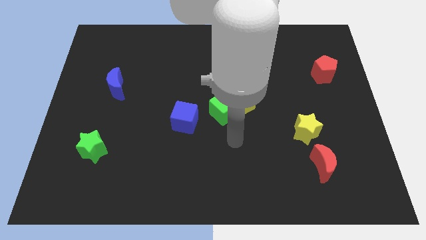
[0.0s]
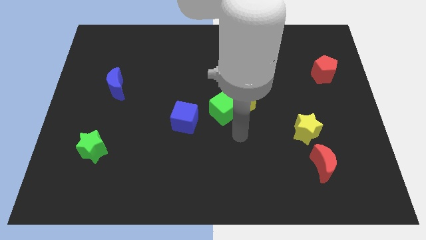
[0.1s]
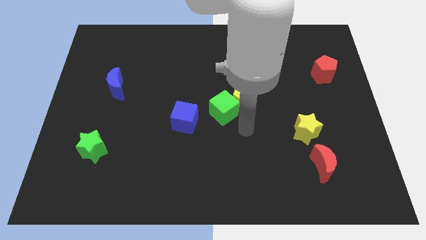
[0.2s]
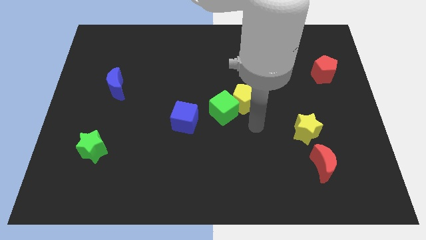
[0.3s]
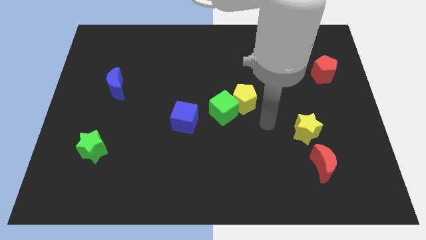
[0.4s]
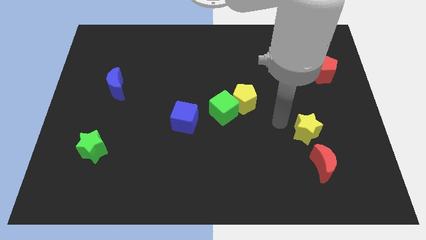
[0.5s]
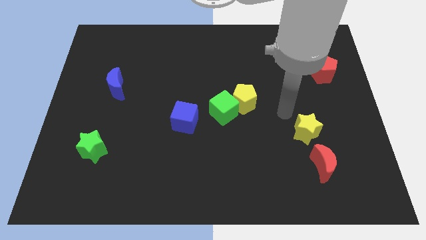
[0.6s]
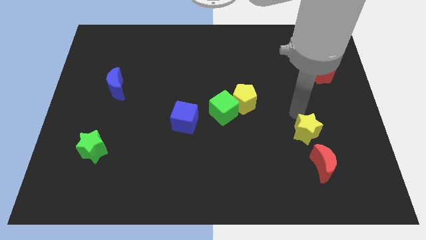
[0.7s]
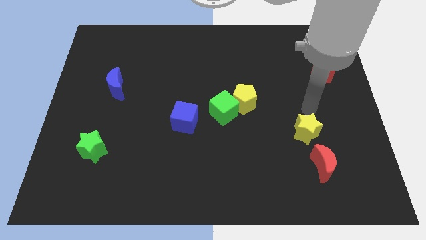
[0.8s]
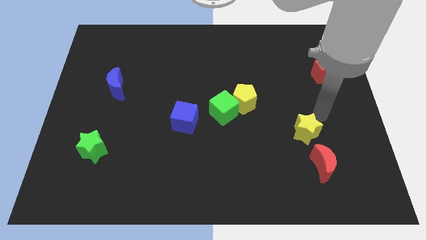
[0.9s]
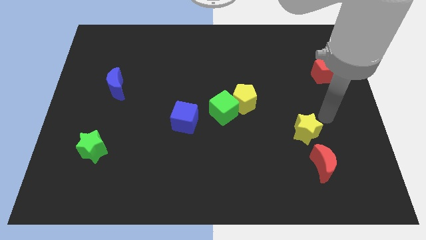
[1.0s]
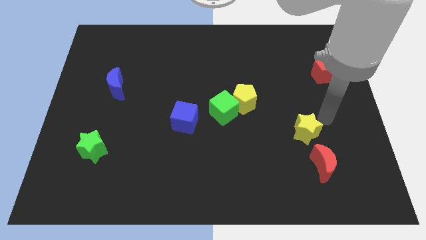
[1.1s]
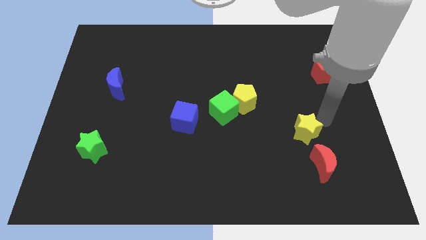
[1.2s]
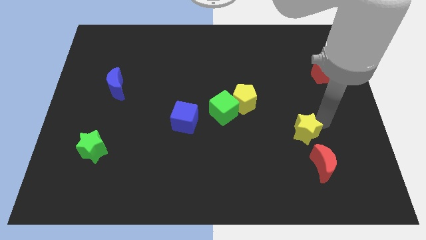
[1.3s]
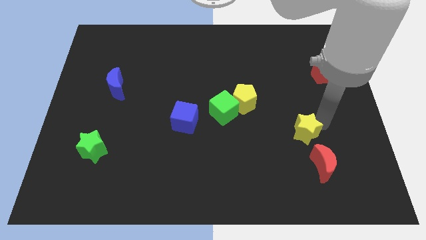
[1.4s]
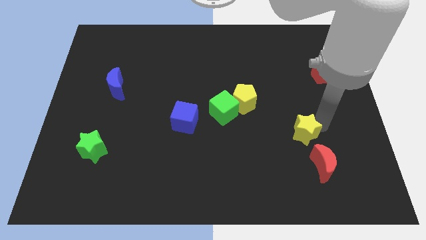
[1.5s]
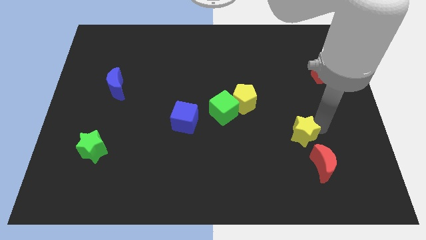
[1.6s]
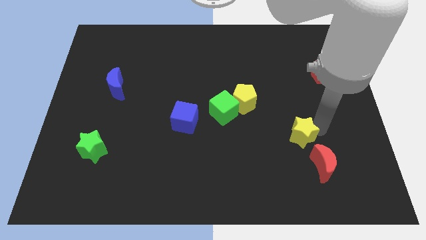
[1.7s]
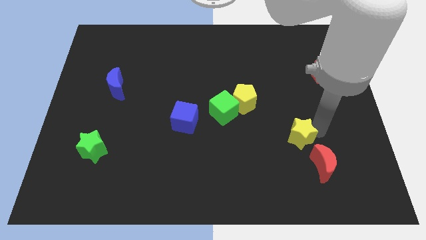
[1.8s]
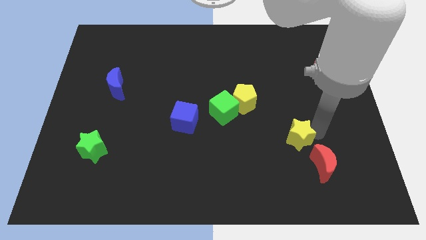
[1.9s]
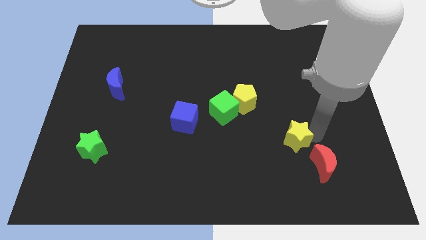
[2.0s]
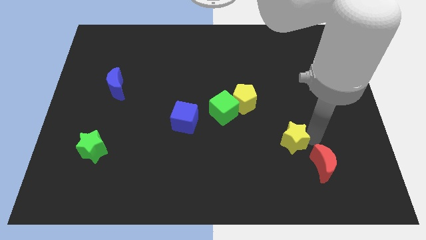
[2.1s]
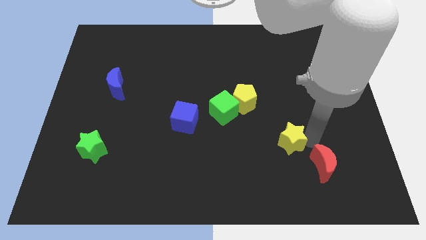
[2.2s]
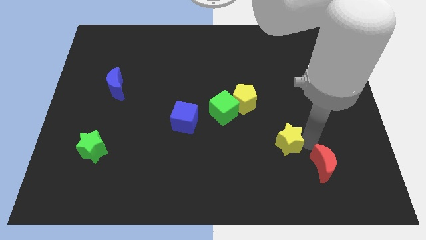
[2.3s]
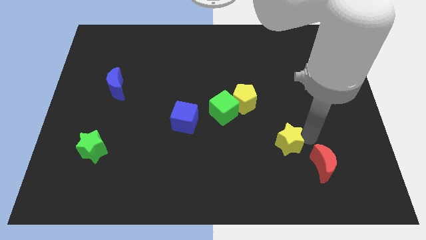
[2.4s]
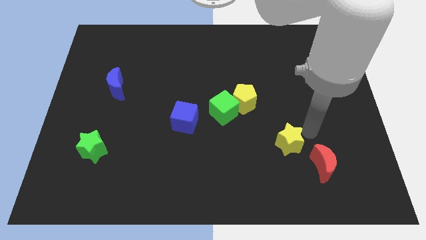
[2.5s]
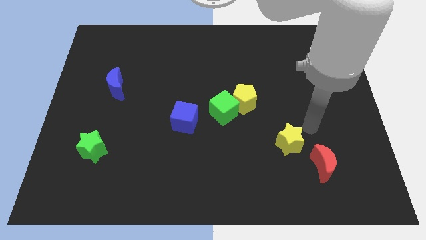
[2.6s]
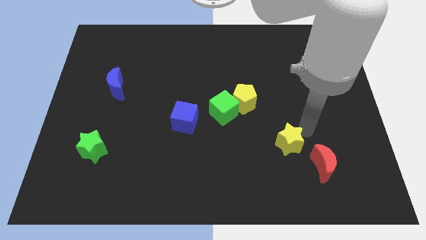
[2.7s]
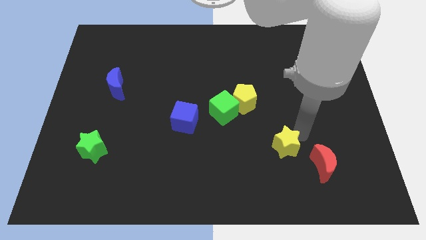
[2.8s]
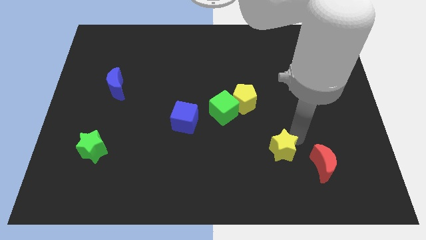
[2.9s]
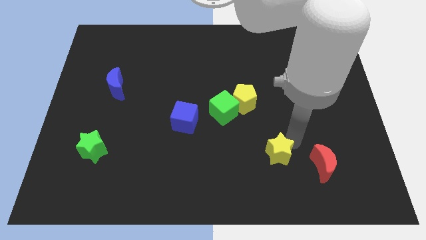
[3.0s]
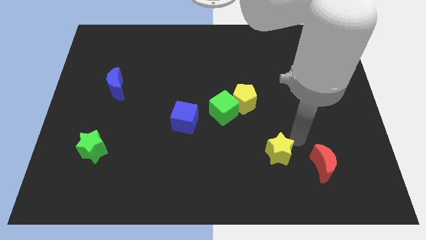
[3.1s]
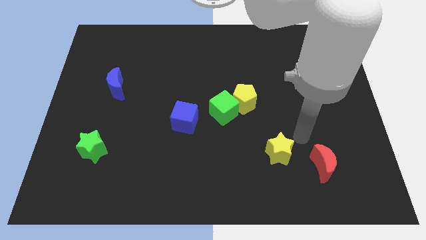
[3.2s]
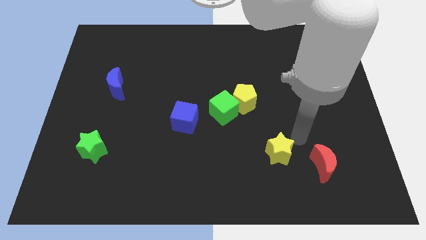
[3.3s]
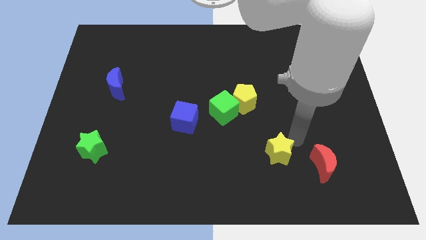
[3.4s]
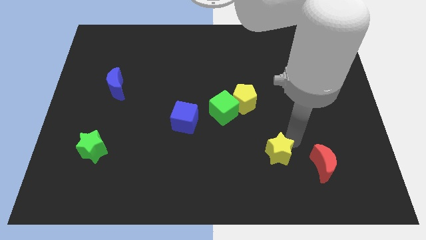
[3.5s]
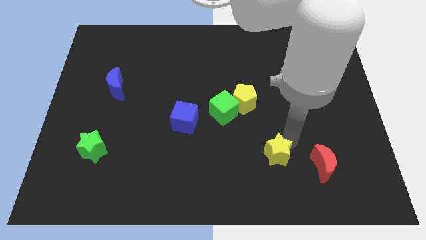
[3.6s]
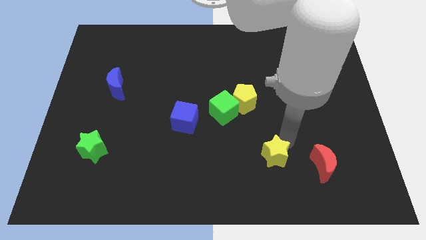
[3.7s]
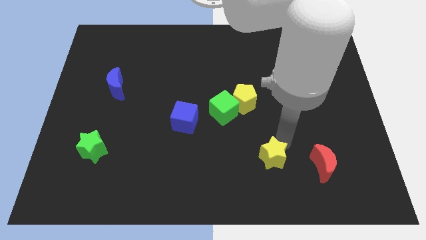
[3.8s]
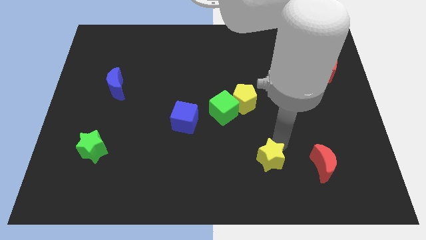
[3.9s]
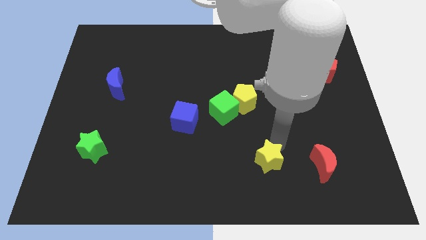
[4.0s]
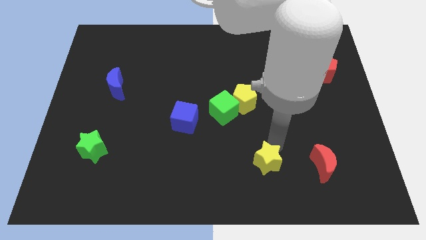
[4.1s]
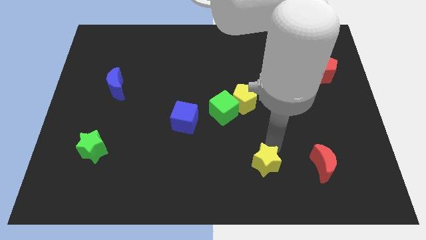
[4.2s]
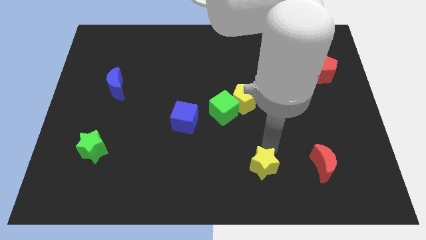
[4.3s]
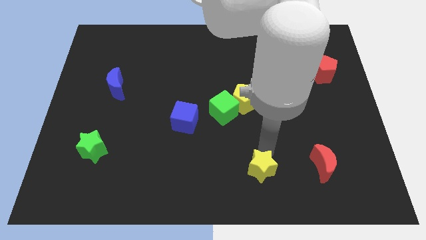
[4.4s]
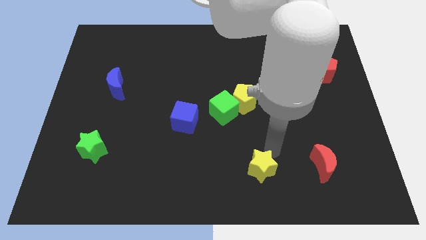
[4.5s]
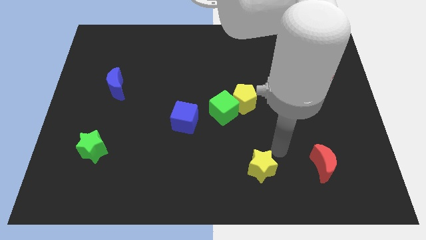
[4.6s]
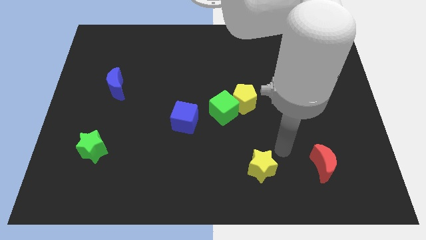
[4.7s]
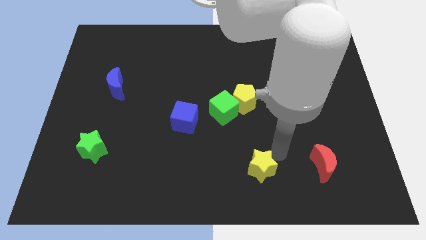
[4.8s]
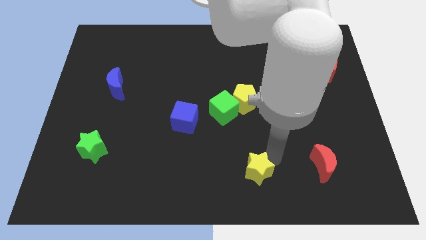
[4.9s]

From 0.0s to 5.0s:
put the yellow star to the bottom side

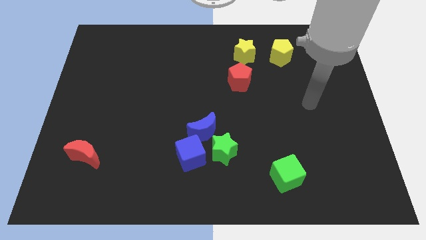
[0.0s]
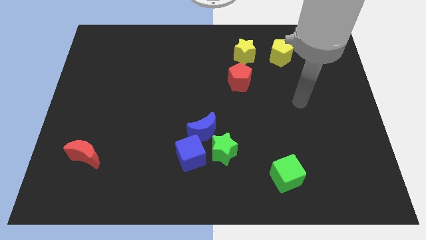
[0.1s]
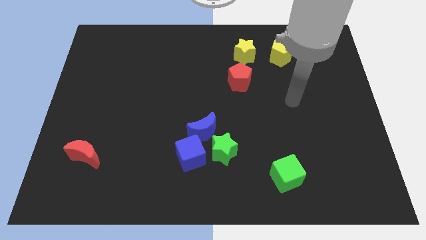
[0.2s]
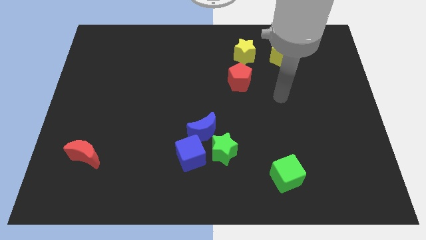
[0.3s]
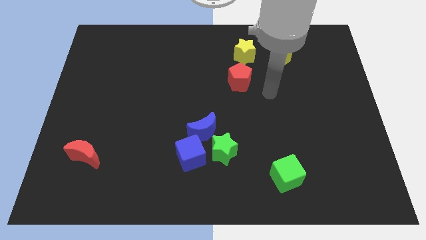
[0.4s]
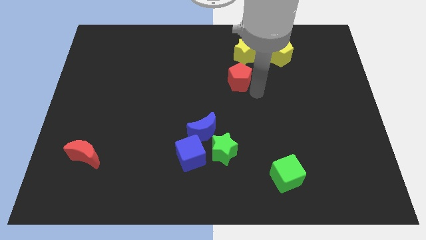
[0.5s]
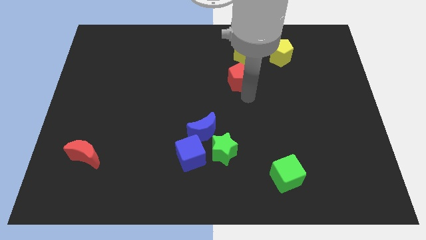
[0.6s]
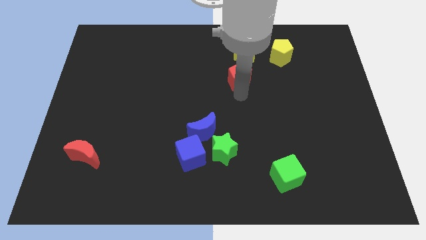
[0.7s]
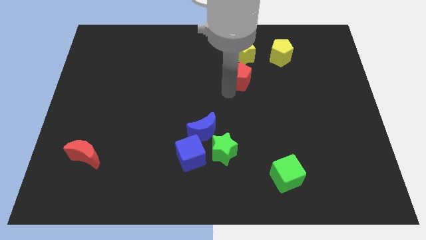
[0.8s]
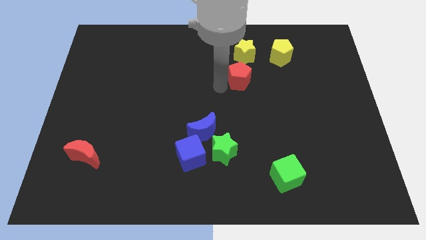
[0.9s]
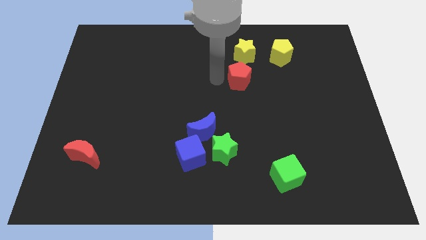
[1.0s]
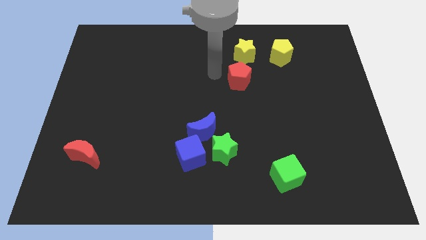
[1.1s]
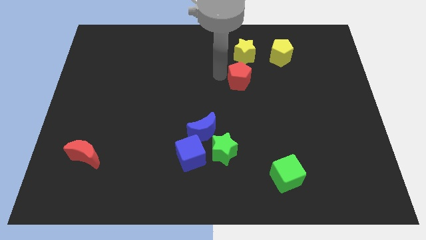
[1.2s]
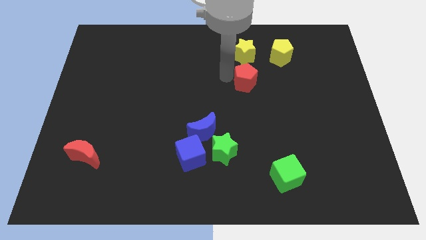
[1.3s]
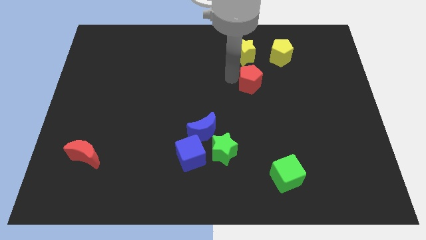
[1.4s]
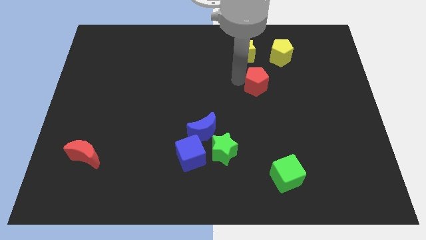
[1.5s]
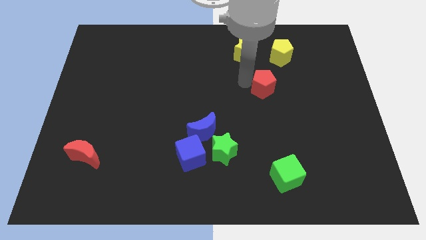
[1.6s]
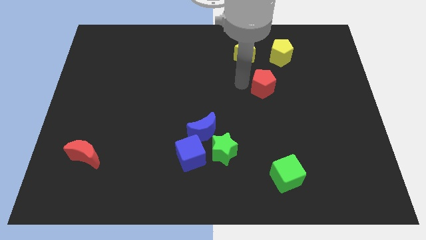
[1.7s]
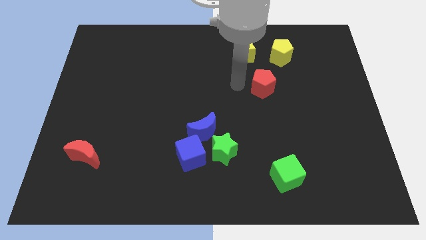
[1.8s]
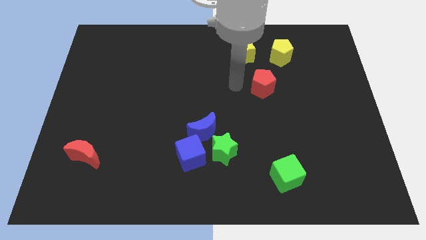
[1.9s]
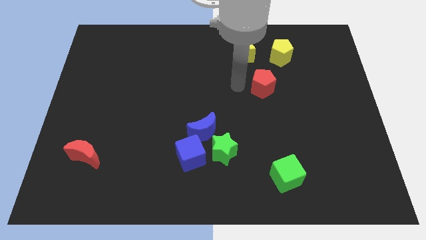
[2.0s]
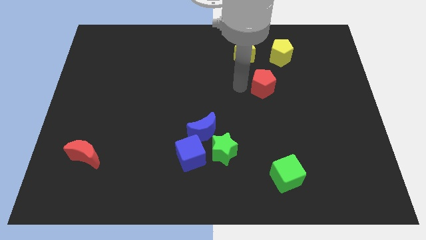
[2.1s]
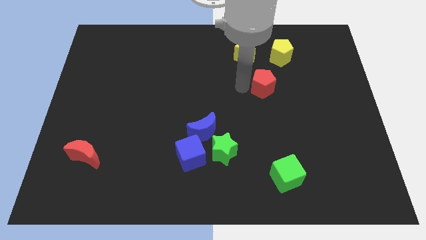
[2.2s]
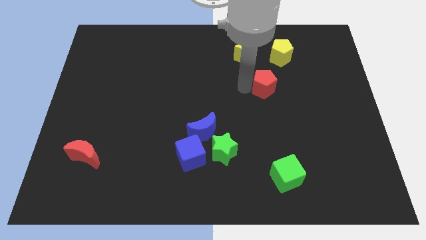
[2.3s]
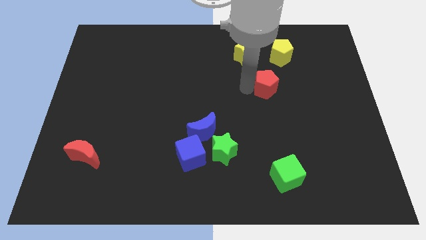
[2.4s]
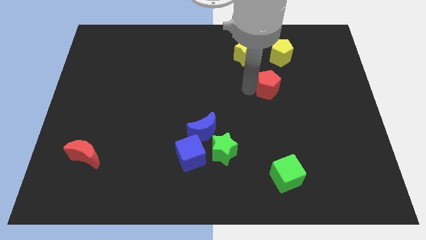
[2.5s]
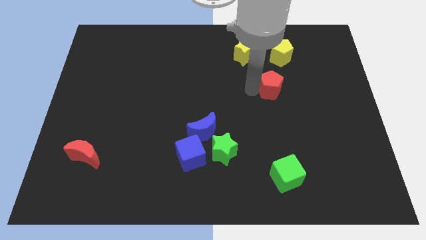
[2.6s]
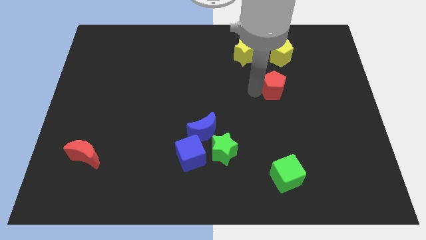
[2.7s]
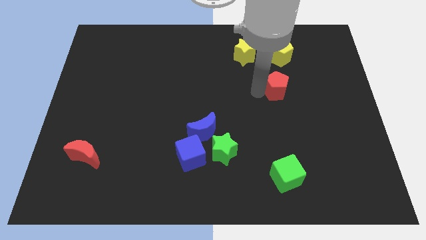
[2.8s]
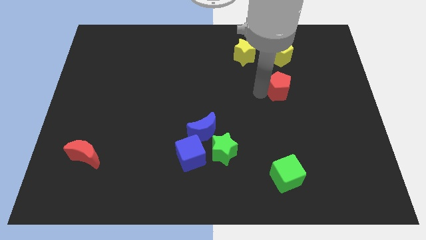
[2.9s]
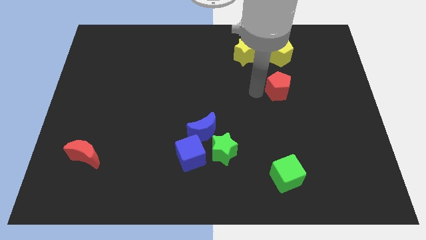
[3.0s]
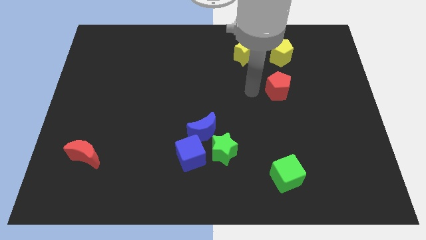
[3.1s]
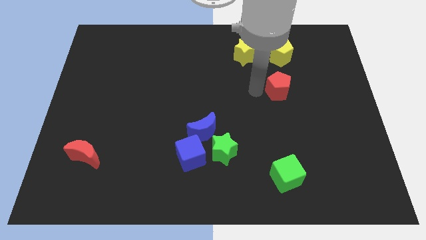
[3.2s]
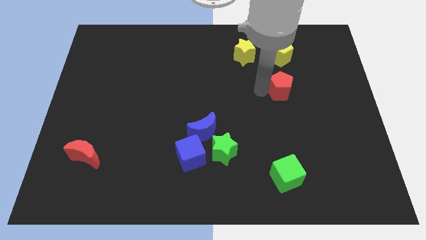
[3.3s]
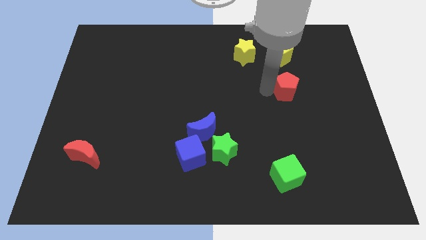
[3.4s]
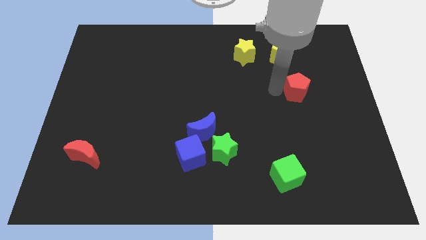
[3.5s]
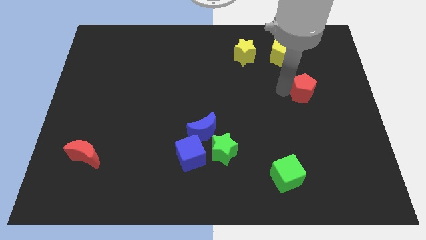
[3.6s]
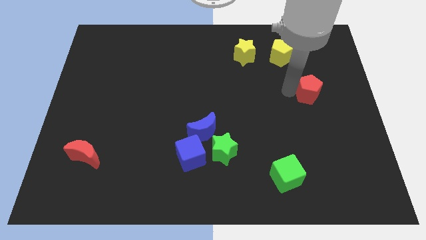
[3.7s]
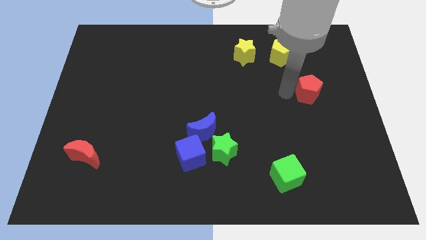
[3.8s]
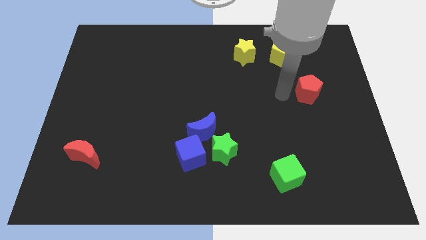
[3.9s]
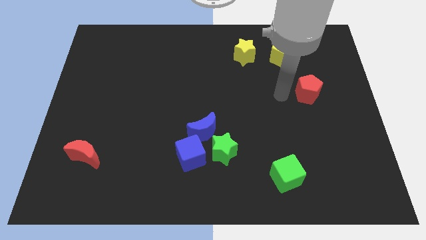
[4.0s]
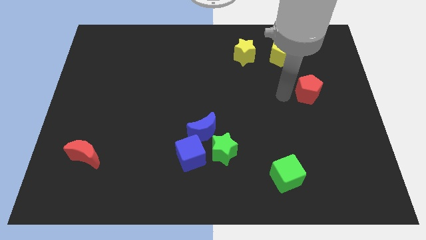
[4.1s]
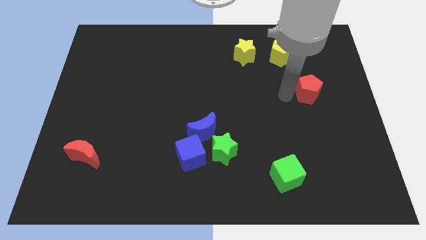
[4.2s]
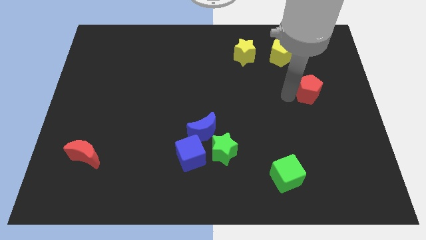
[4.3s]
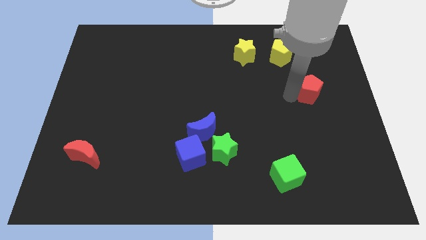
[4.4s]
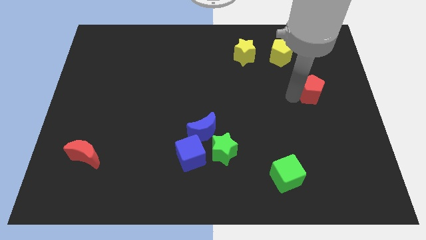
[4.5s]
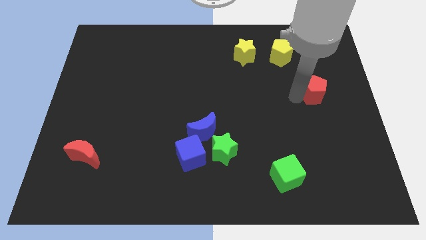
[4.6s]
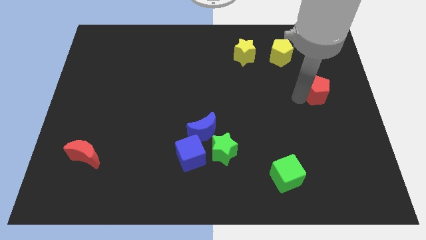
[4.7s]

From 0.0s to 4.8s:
put the red pentagon to the center right
